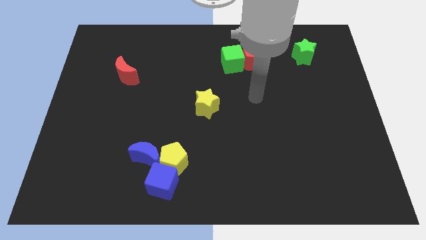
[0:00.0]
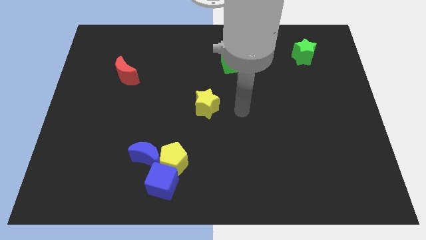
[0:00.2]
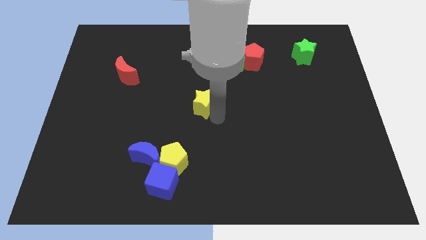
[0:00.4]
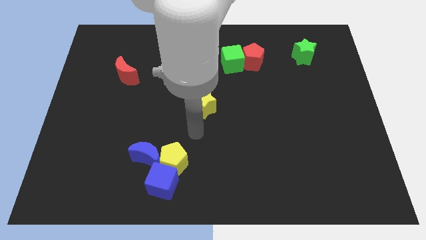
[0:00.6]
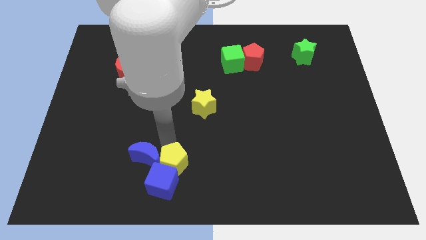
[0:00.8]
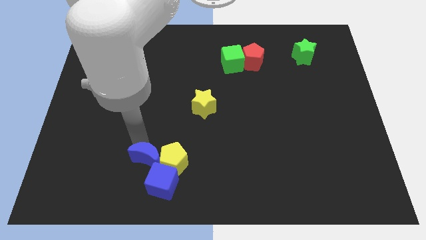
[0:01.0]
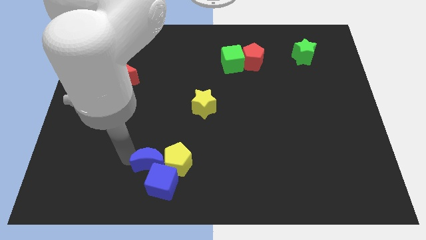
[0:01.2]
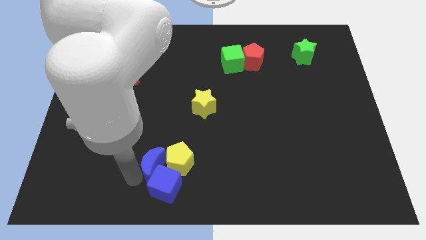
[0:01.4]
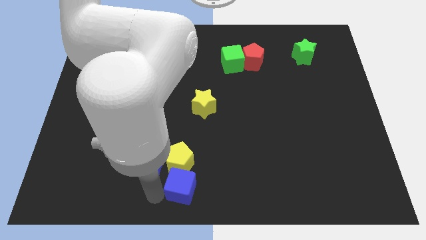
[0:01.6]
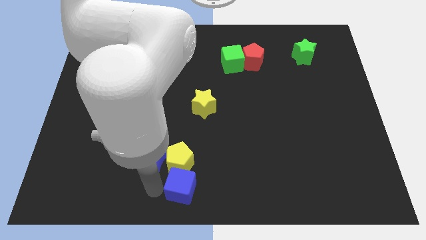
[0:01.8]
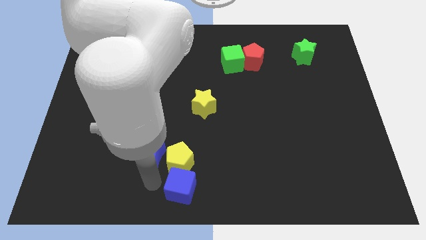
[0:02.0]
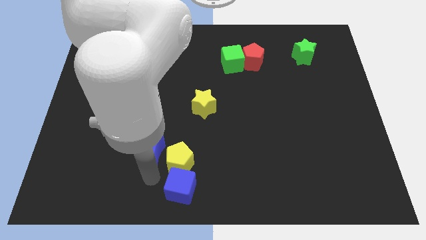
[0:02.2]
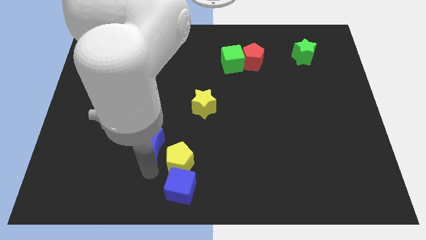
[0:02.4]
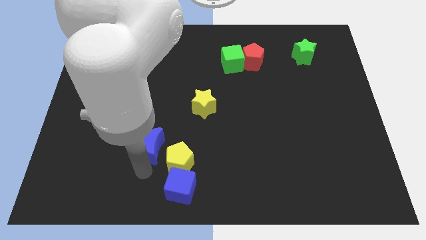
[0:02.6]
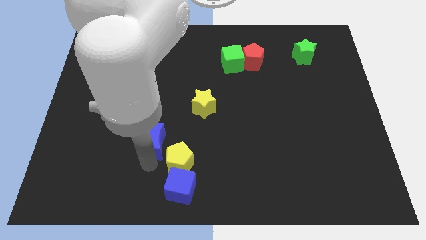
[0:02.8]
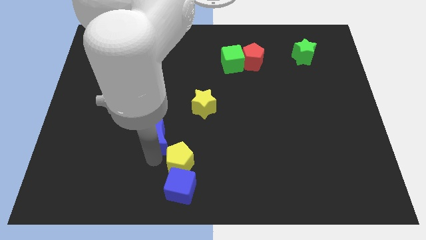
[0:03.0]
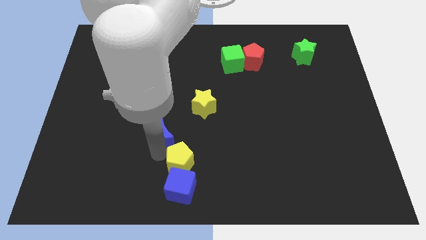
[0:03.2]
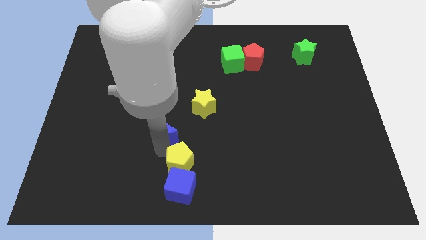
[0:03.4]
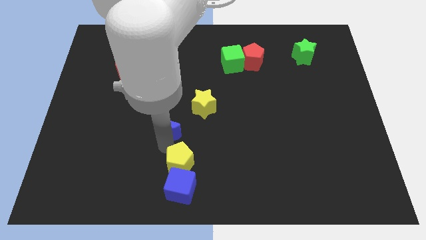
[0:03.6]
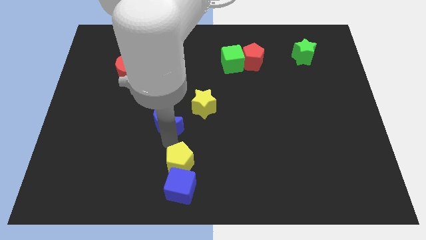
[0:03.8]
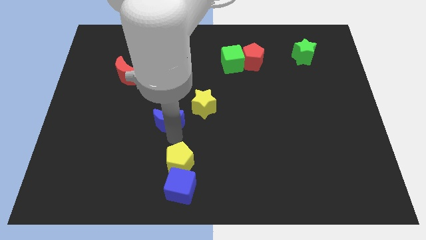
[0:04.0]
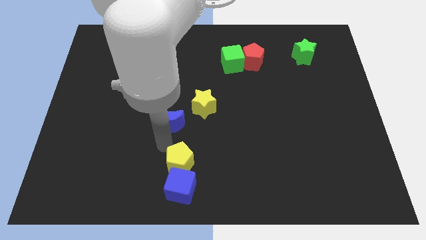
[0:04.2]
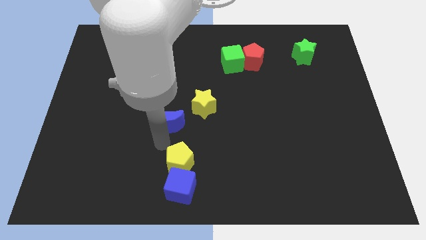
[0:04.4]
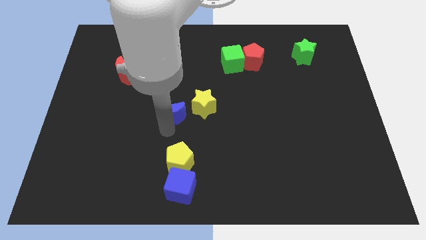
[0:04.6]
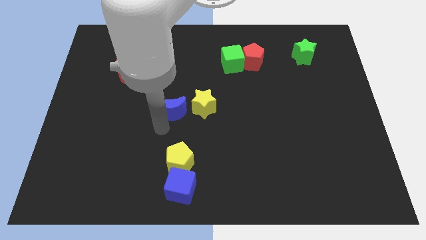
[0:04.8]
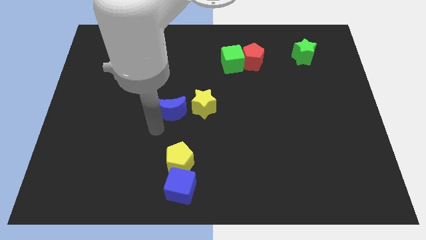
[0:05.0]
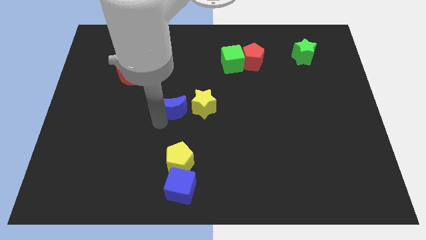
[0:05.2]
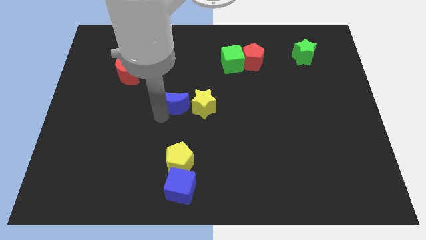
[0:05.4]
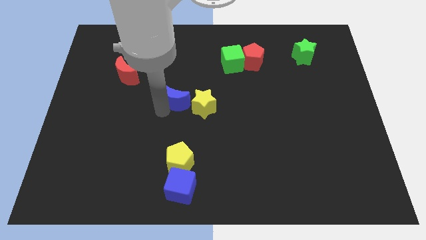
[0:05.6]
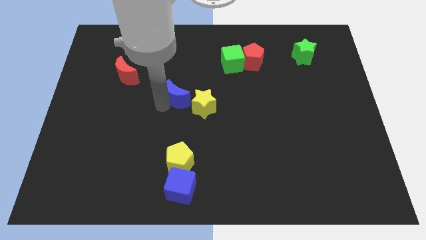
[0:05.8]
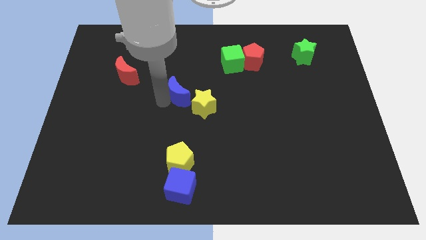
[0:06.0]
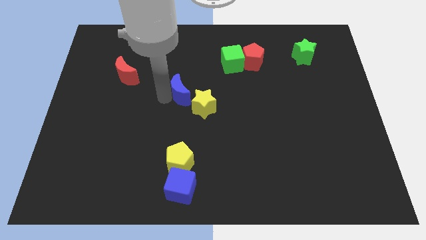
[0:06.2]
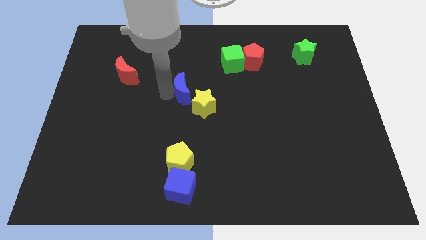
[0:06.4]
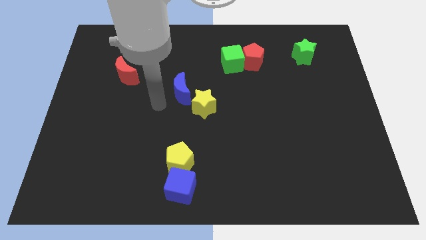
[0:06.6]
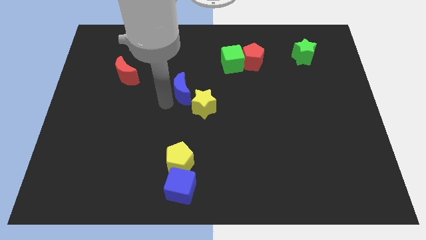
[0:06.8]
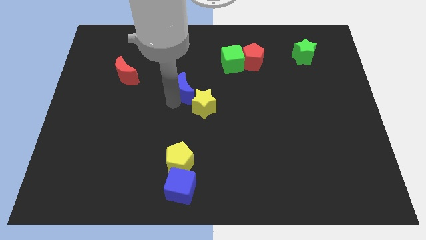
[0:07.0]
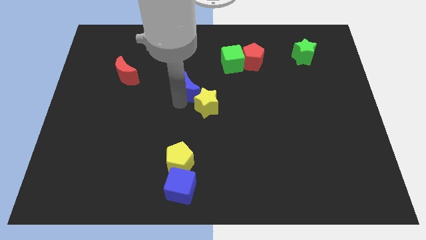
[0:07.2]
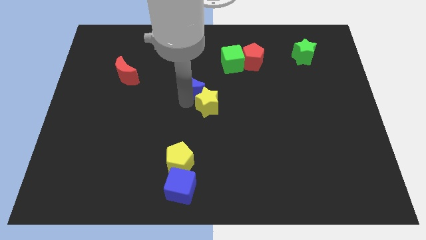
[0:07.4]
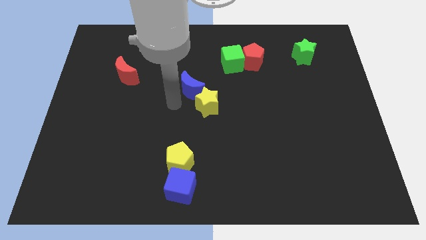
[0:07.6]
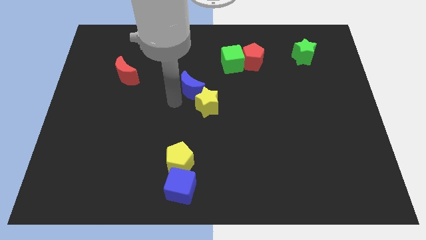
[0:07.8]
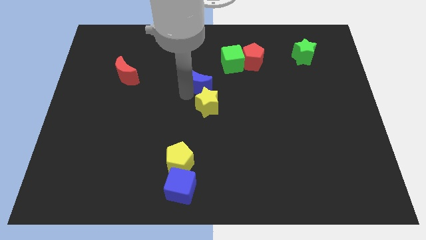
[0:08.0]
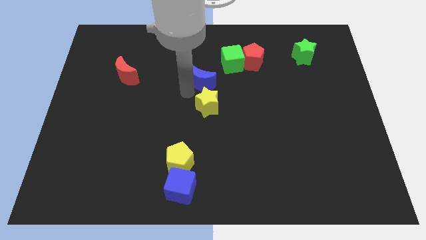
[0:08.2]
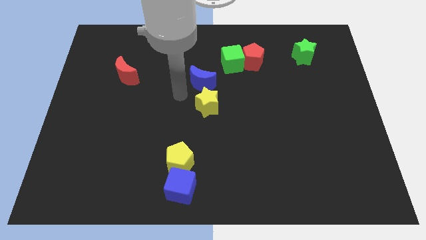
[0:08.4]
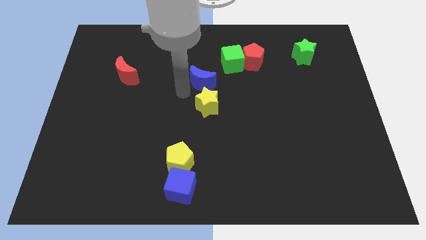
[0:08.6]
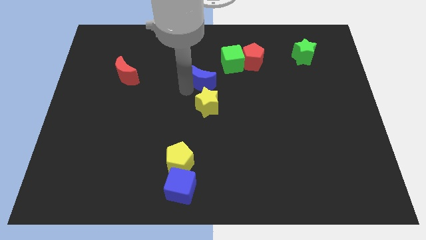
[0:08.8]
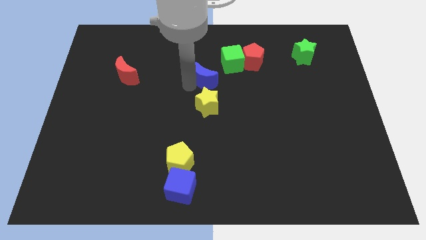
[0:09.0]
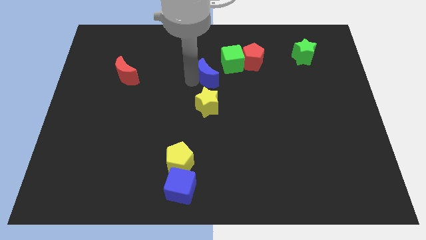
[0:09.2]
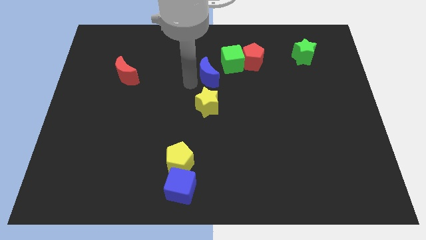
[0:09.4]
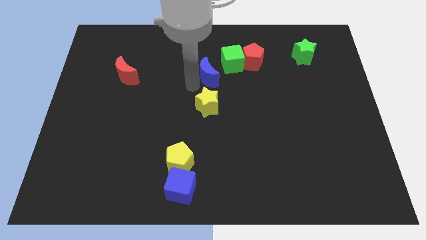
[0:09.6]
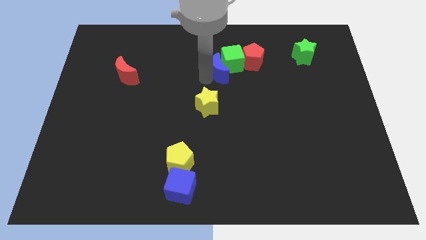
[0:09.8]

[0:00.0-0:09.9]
put the blue moon towards the green cube

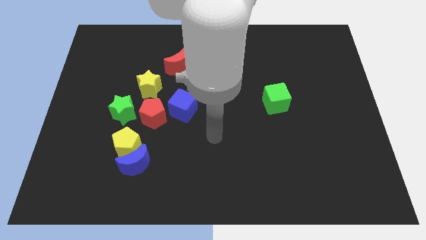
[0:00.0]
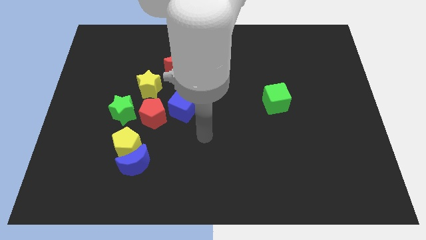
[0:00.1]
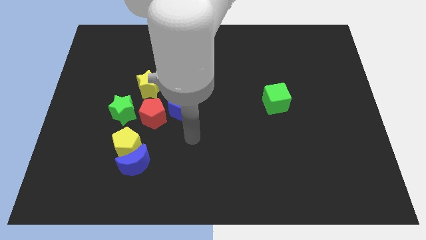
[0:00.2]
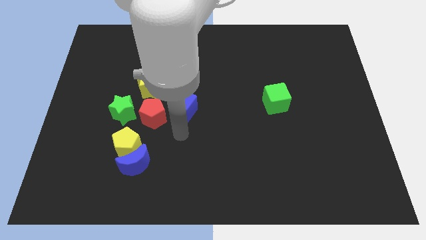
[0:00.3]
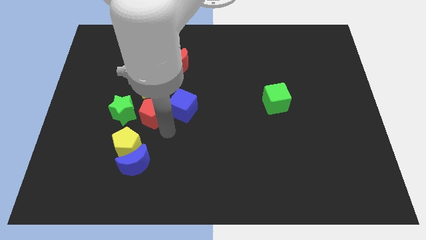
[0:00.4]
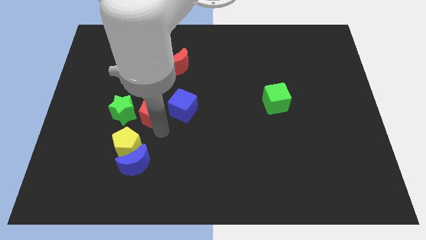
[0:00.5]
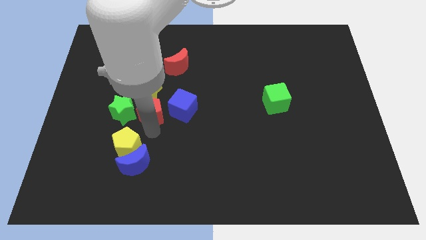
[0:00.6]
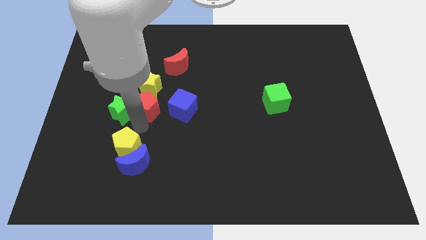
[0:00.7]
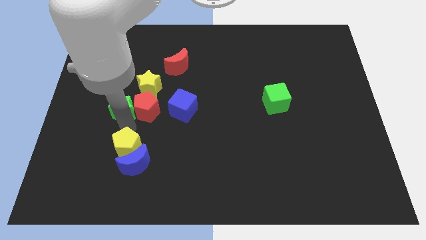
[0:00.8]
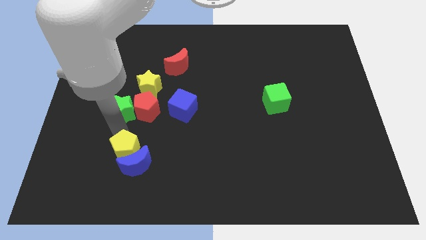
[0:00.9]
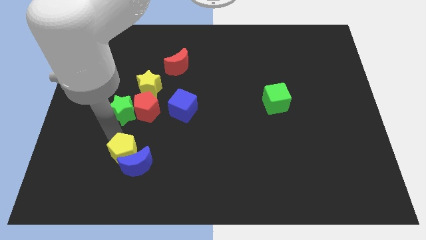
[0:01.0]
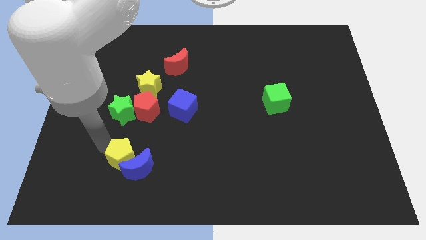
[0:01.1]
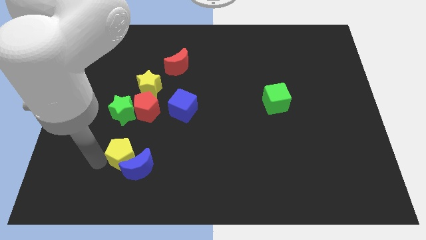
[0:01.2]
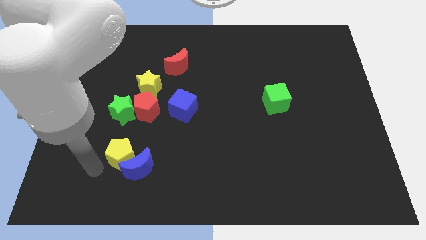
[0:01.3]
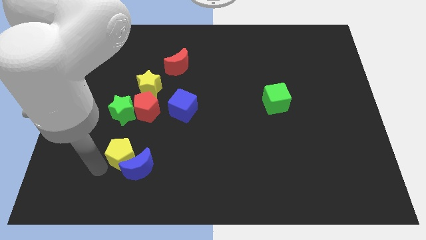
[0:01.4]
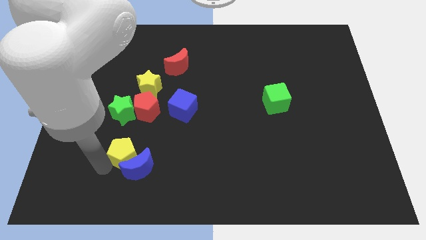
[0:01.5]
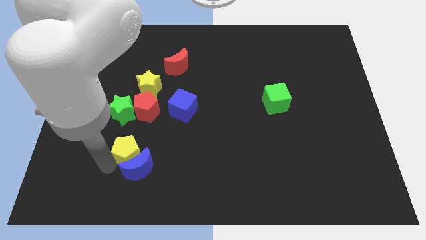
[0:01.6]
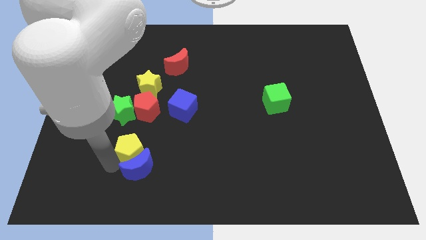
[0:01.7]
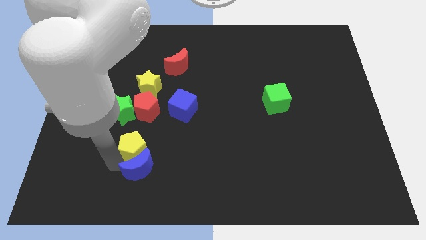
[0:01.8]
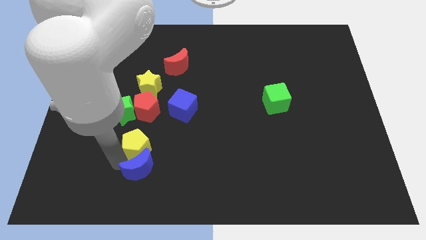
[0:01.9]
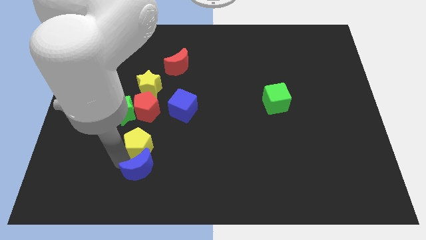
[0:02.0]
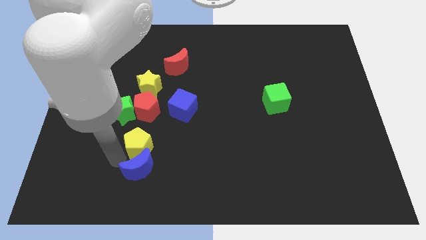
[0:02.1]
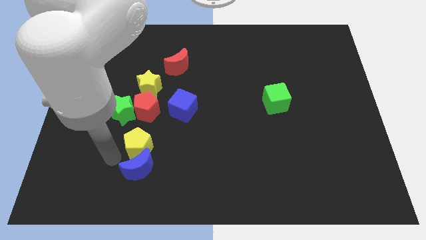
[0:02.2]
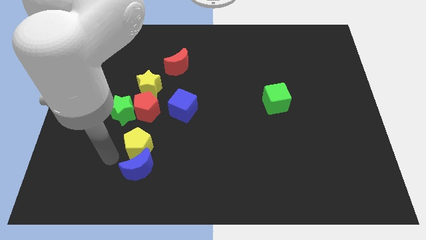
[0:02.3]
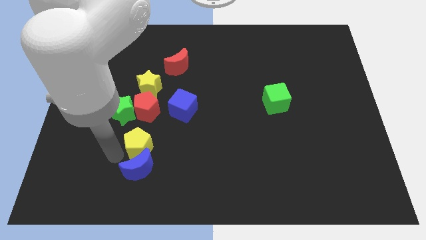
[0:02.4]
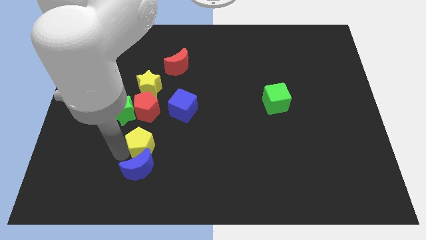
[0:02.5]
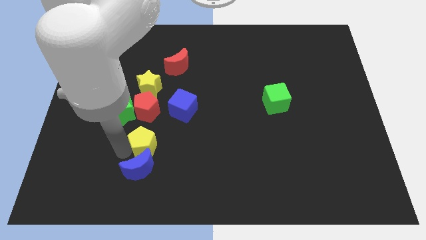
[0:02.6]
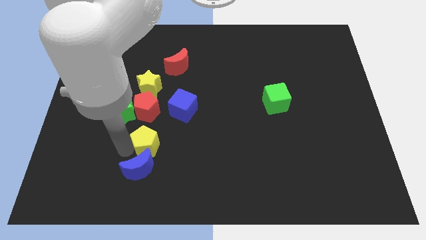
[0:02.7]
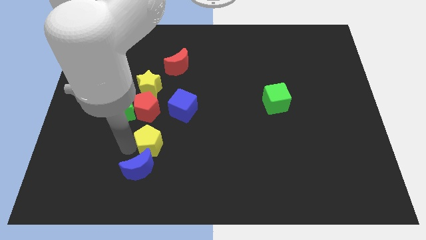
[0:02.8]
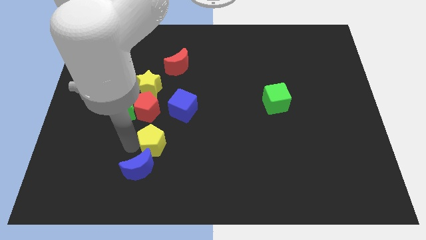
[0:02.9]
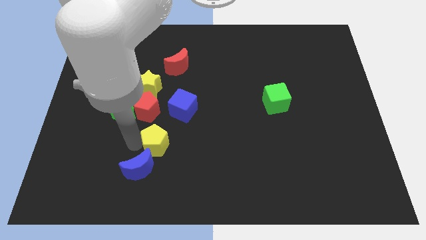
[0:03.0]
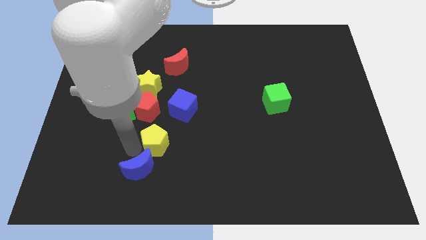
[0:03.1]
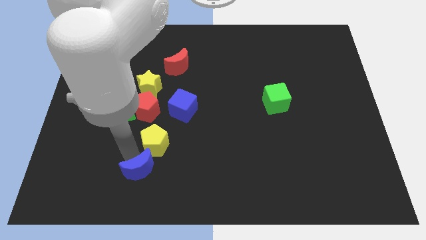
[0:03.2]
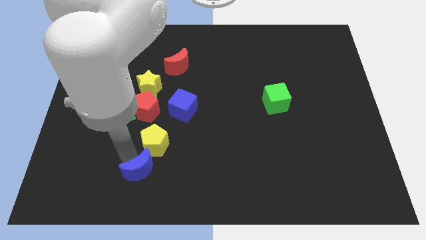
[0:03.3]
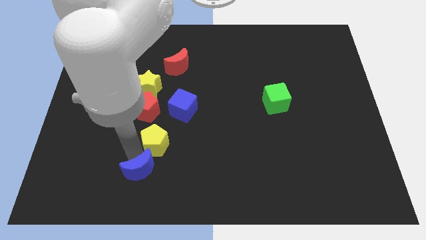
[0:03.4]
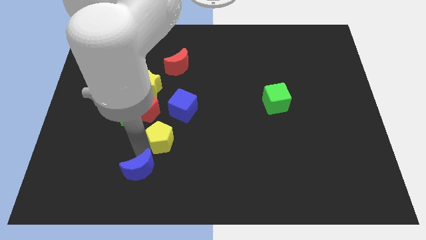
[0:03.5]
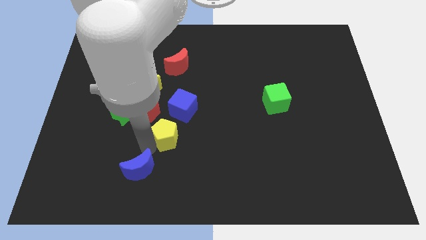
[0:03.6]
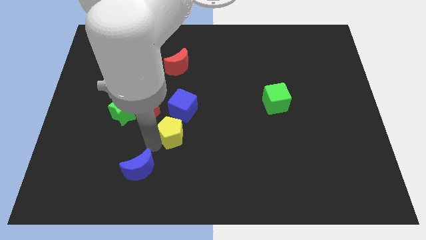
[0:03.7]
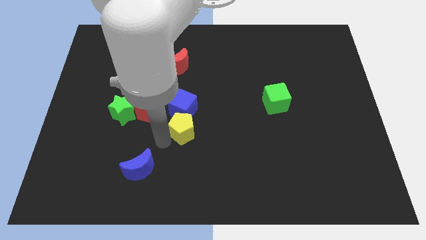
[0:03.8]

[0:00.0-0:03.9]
move the yellow pentagon close to the blue cube
